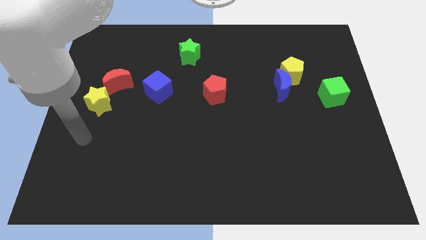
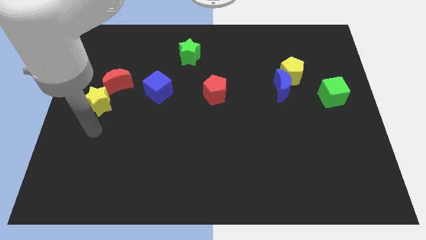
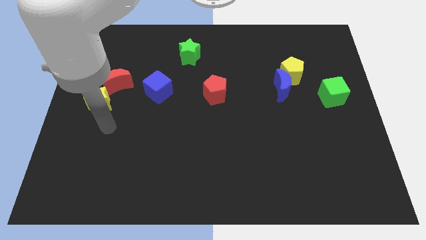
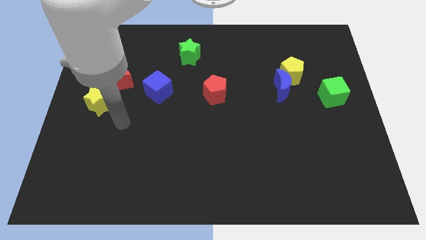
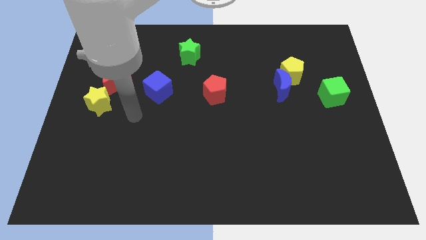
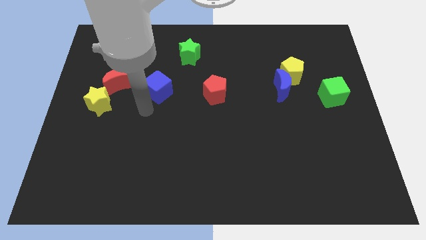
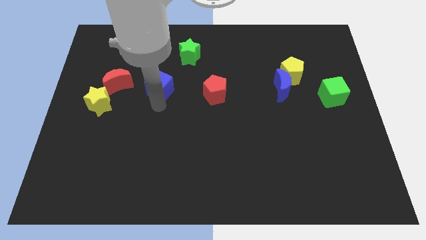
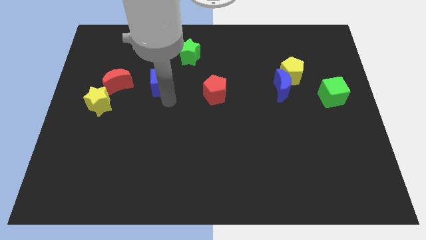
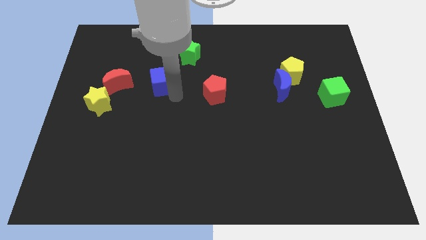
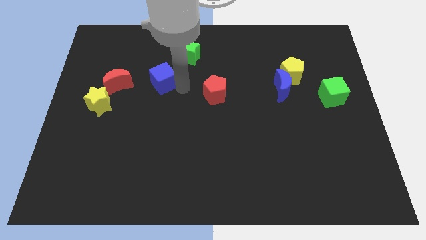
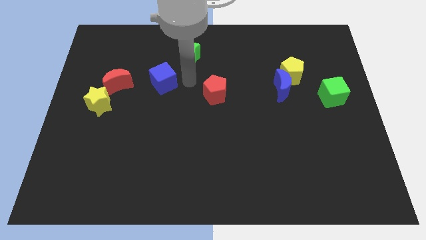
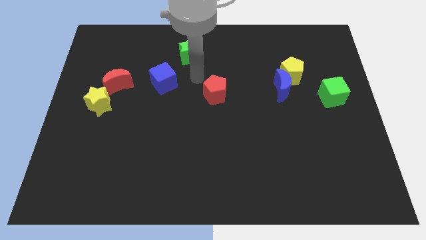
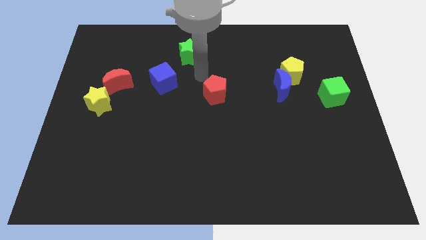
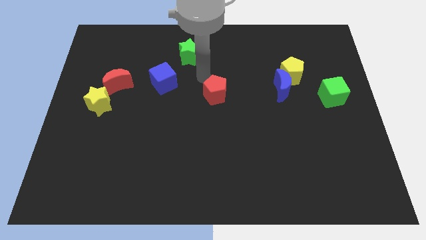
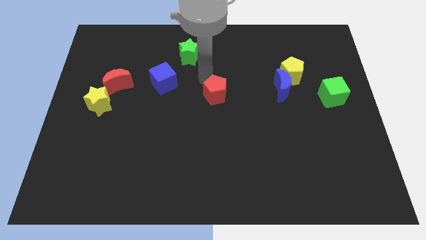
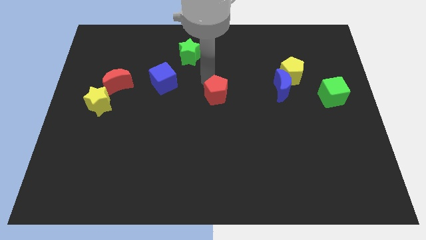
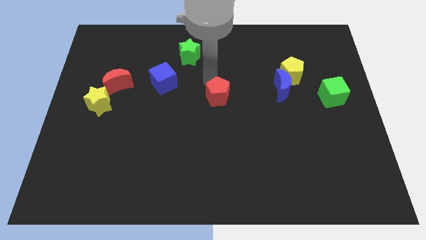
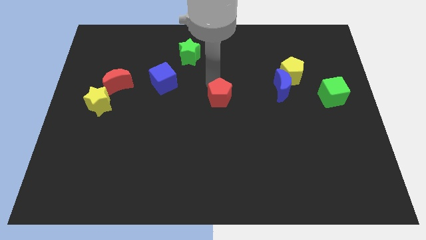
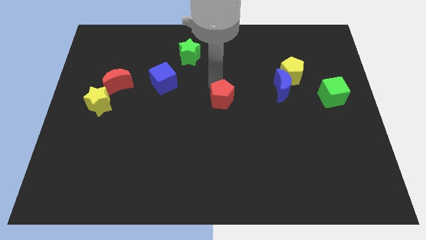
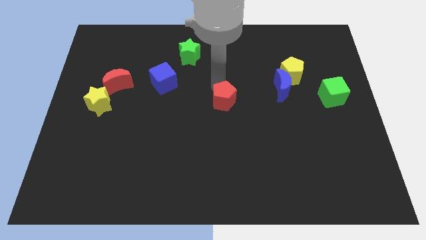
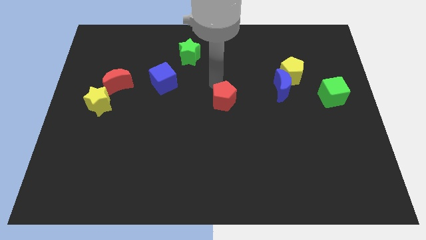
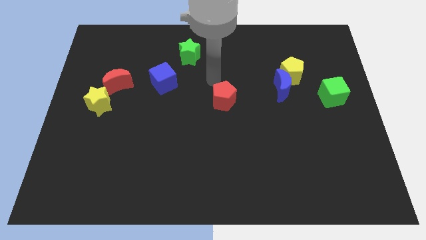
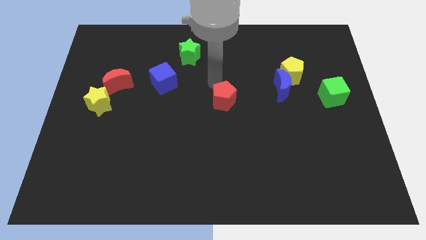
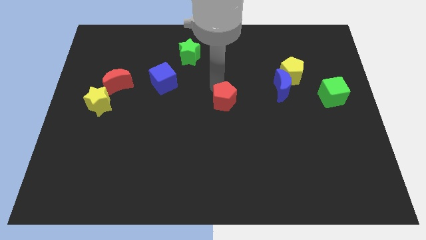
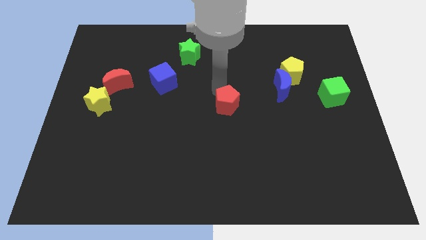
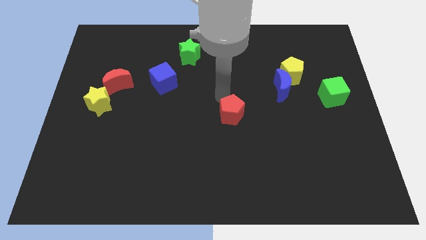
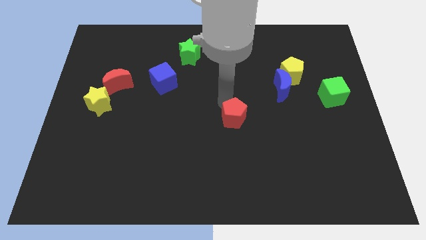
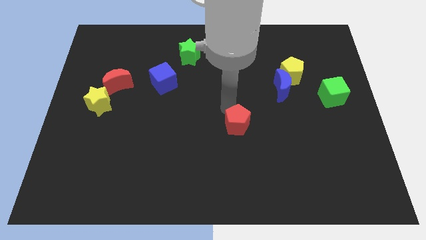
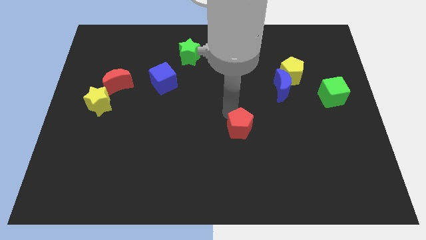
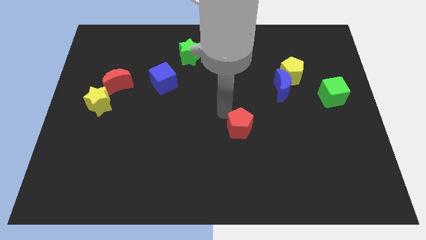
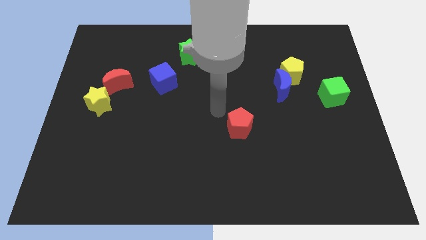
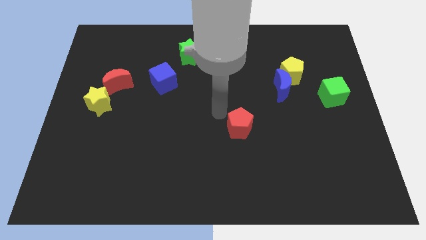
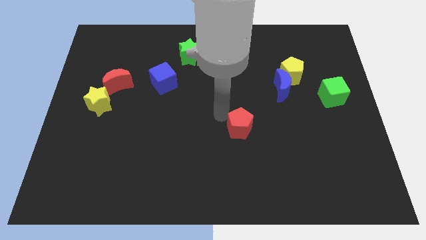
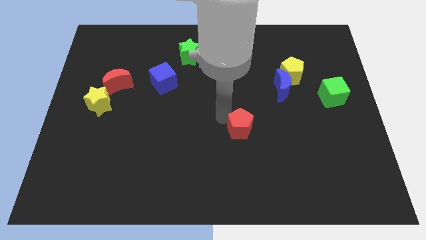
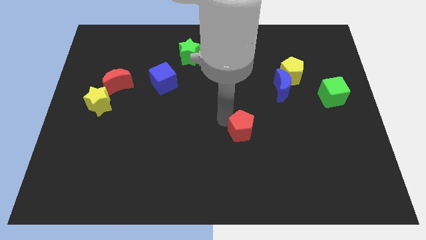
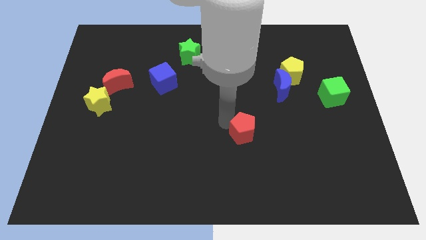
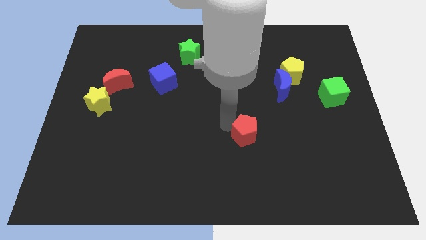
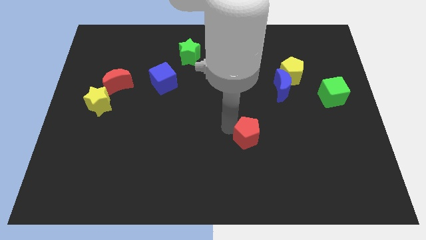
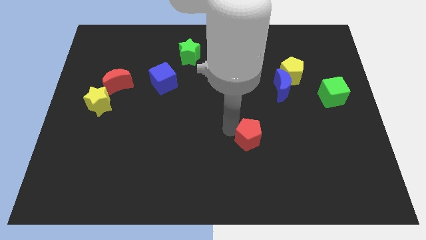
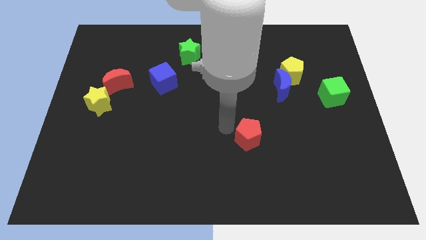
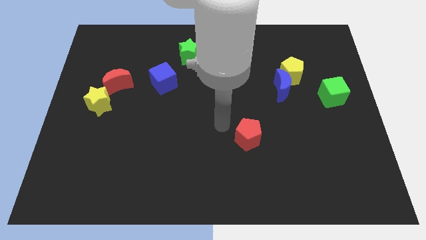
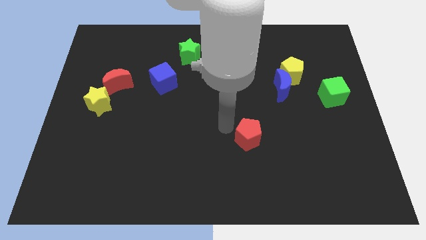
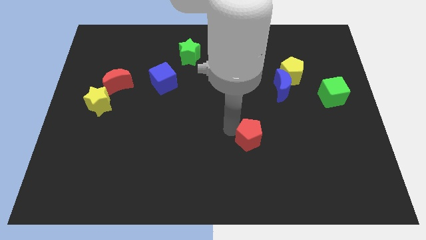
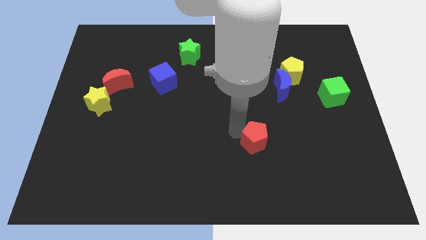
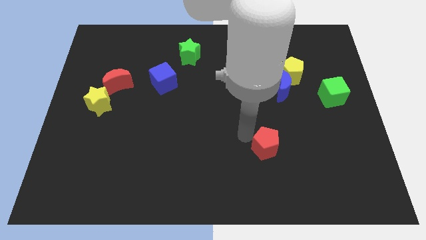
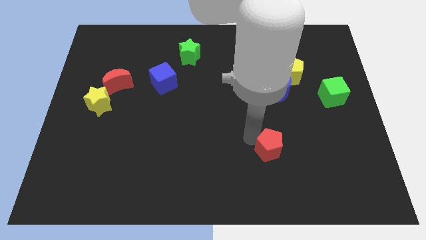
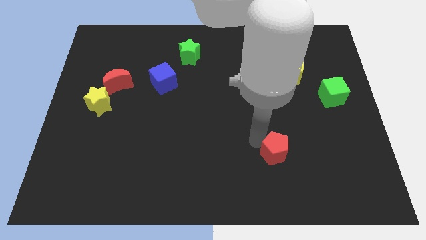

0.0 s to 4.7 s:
move the red pentagon downwards and right diagonally

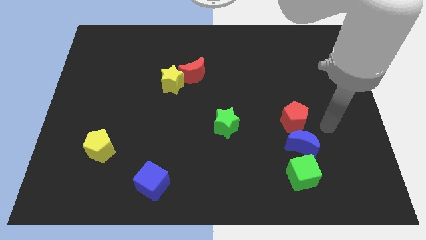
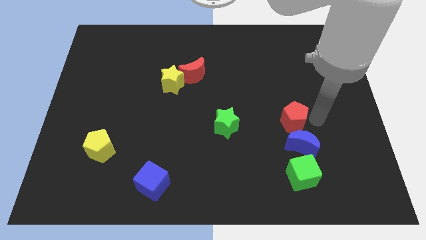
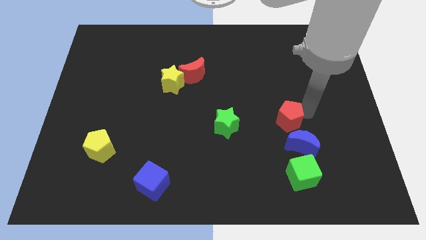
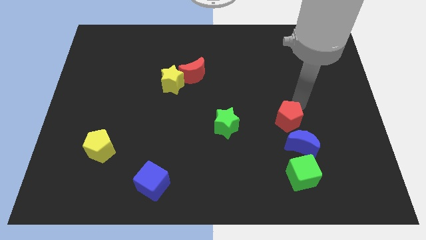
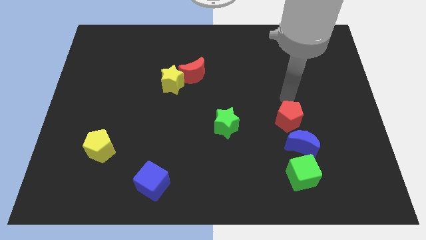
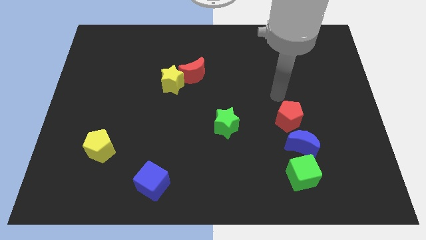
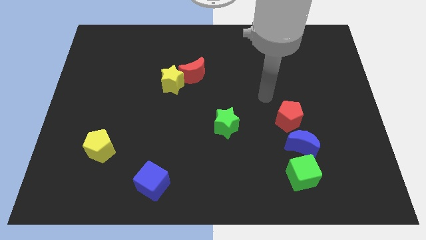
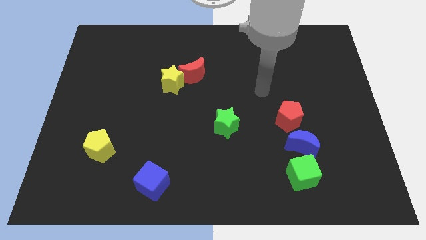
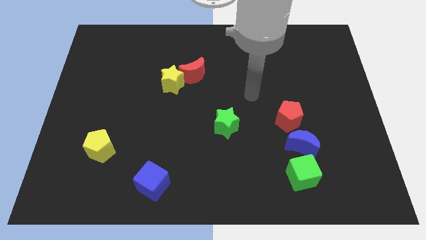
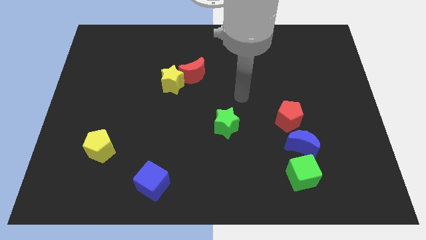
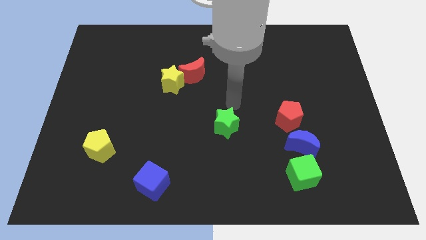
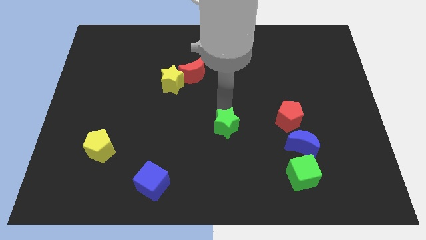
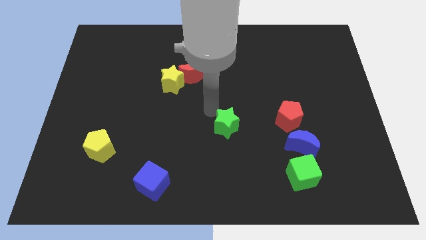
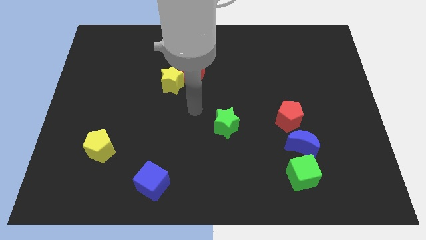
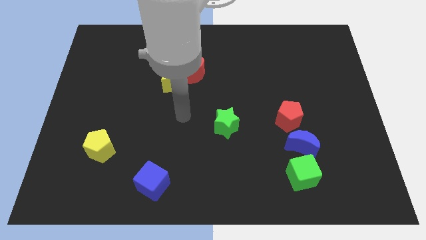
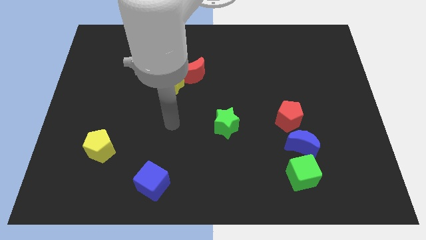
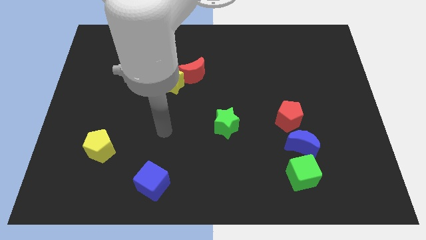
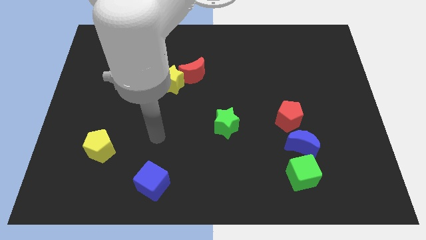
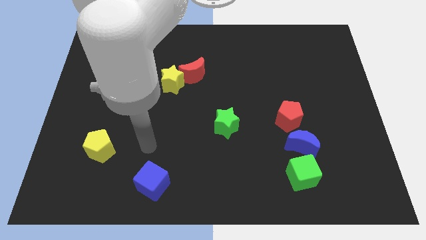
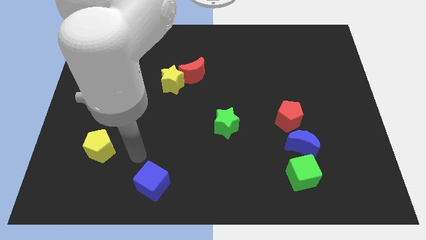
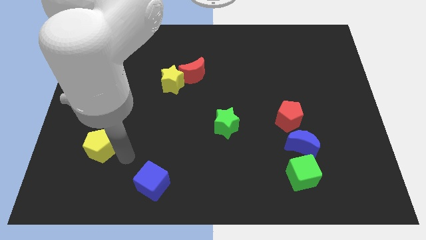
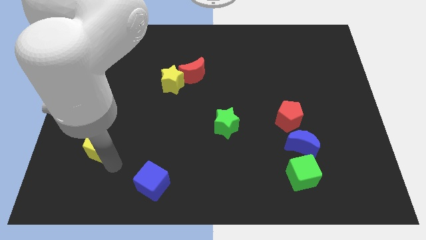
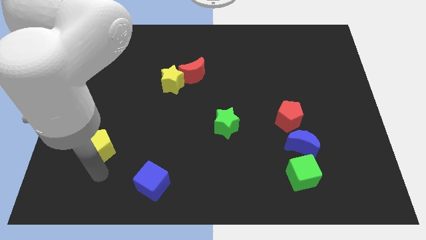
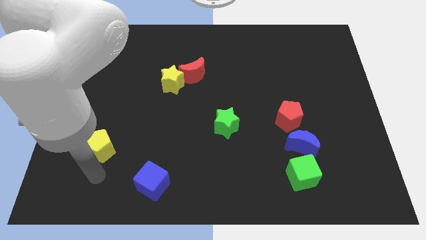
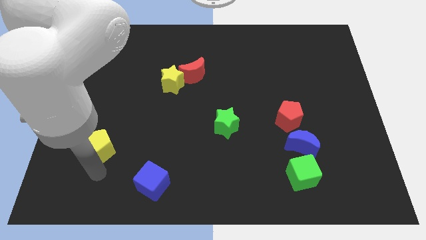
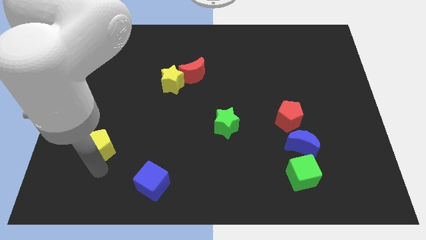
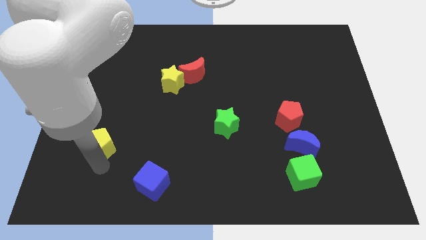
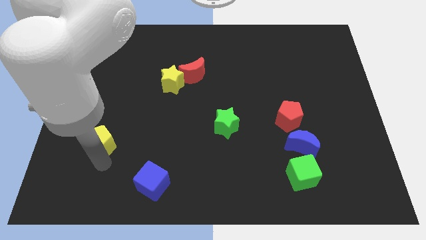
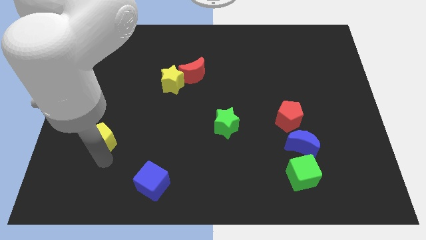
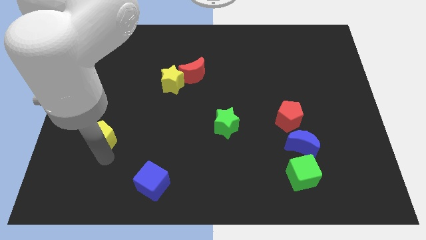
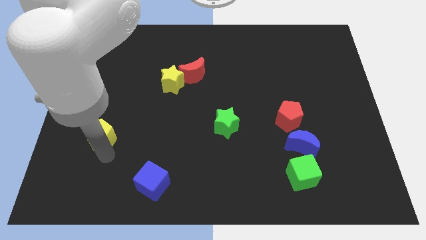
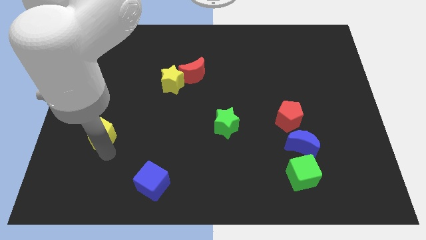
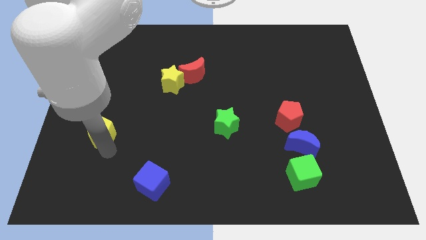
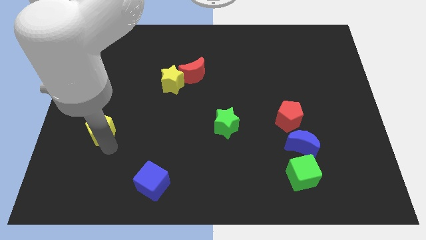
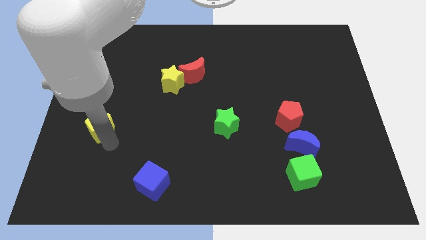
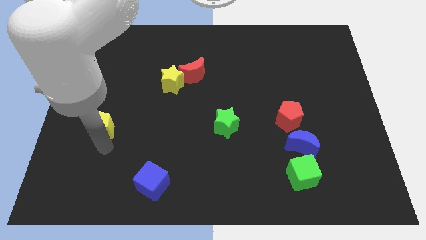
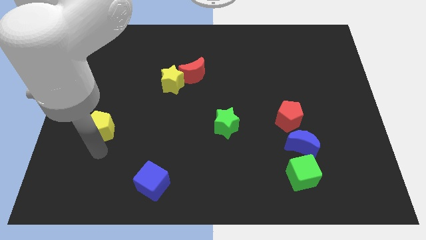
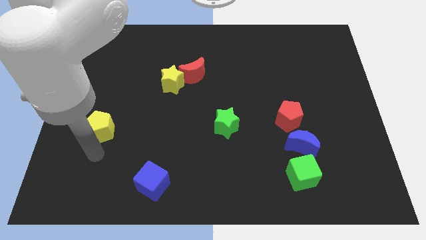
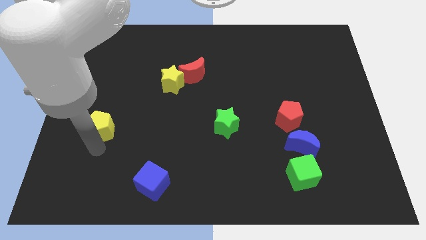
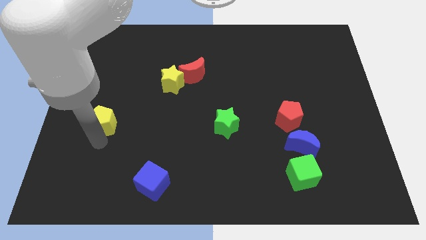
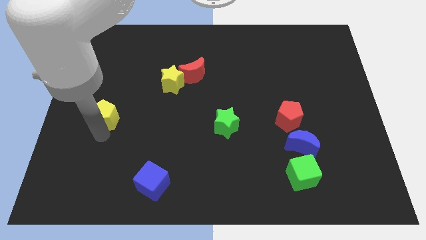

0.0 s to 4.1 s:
slide the yellow pentagon somewhat upwards
